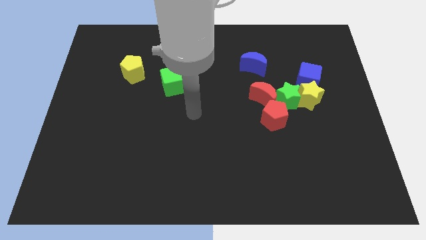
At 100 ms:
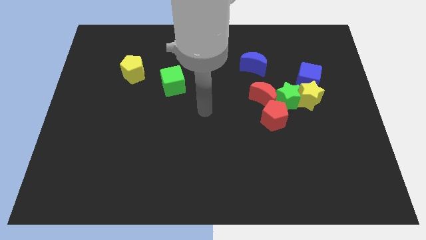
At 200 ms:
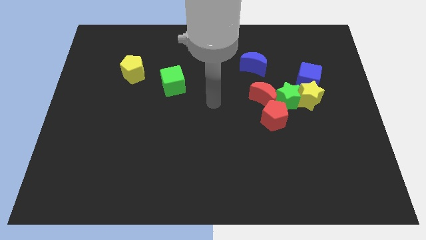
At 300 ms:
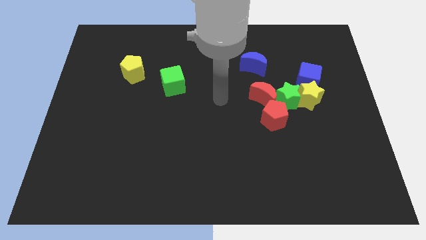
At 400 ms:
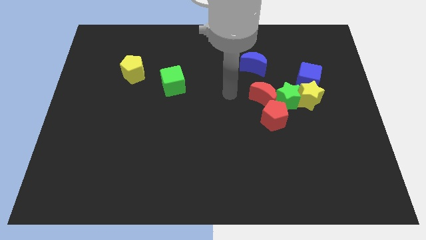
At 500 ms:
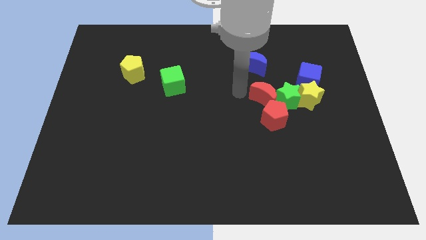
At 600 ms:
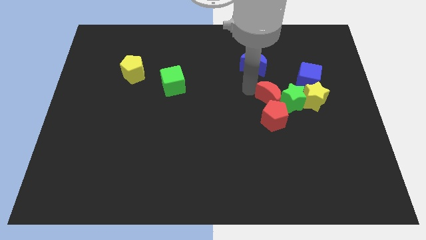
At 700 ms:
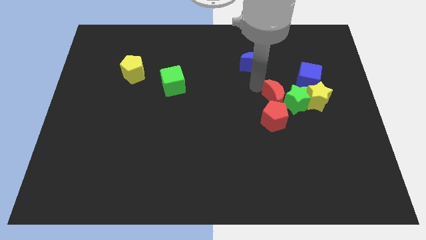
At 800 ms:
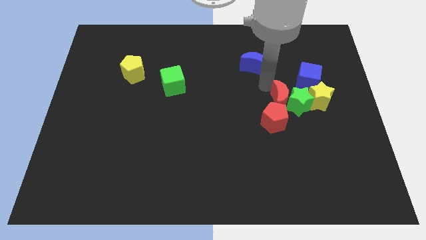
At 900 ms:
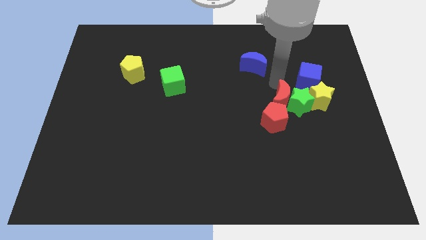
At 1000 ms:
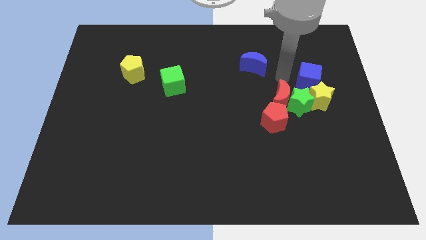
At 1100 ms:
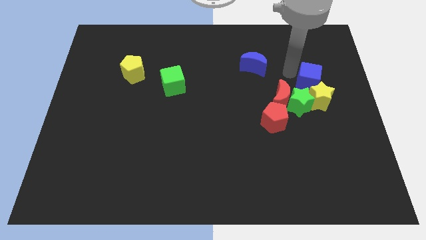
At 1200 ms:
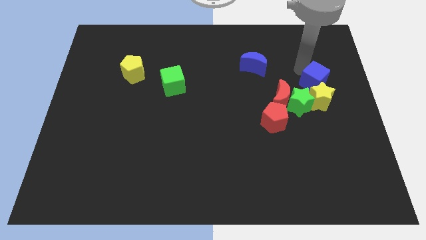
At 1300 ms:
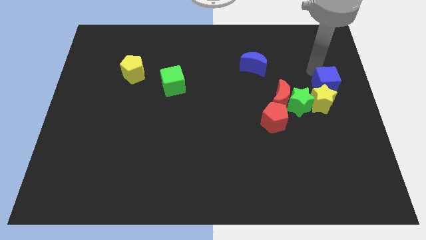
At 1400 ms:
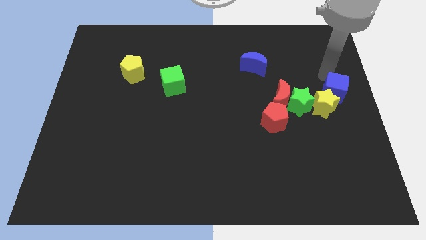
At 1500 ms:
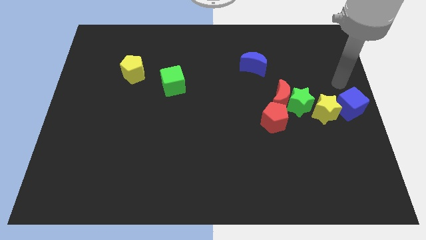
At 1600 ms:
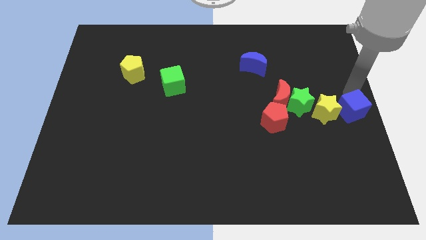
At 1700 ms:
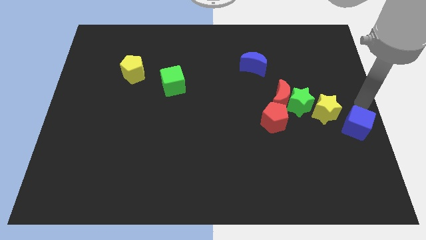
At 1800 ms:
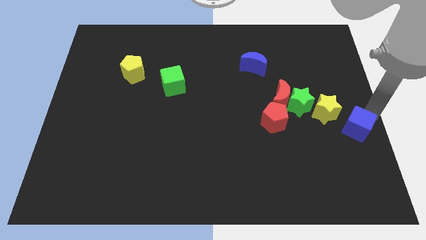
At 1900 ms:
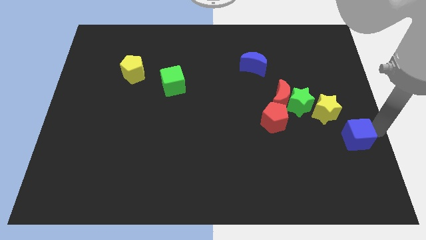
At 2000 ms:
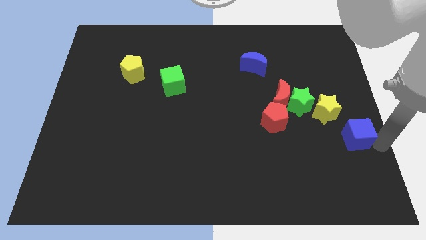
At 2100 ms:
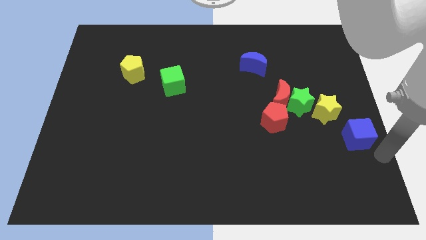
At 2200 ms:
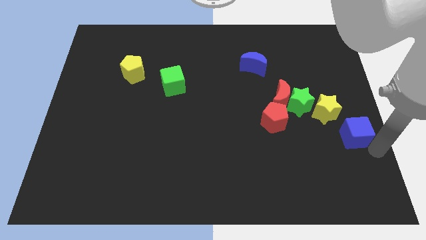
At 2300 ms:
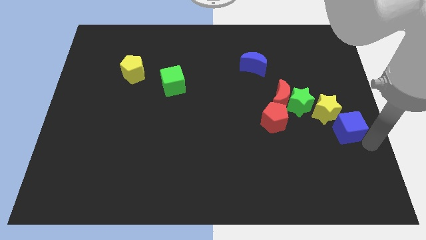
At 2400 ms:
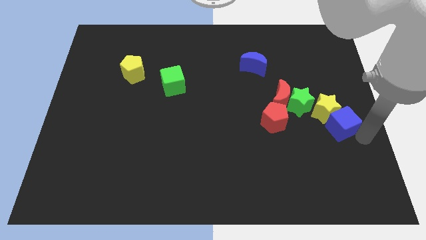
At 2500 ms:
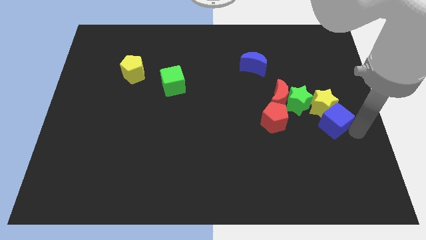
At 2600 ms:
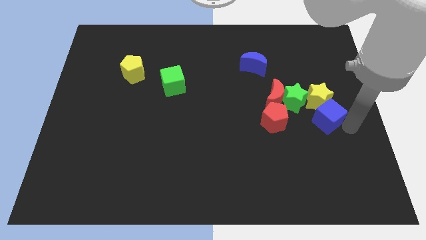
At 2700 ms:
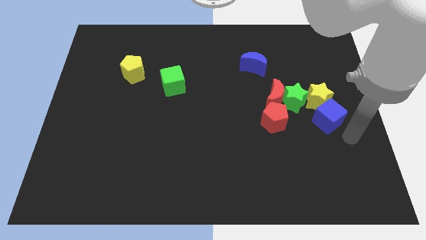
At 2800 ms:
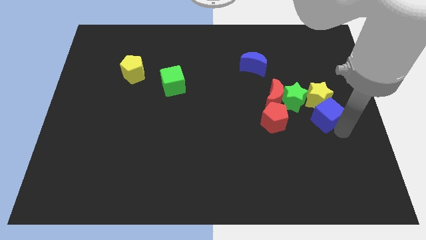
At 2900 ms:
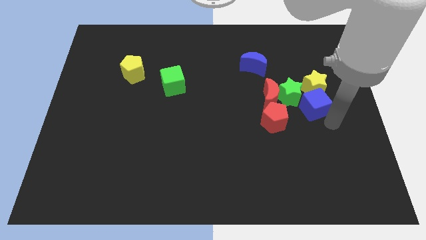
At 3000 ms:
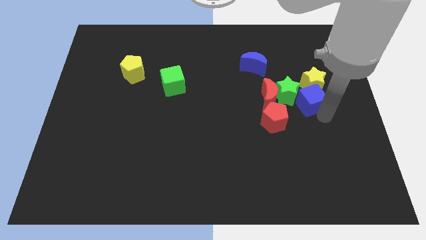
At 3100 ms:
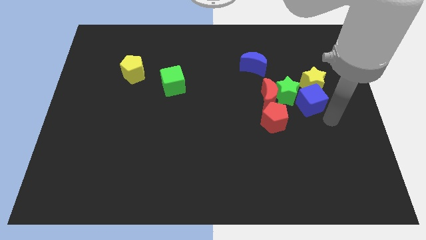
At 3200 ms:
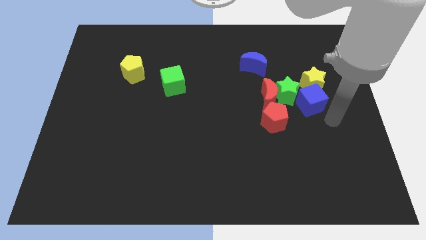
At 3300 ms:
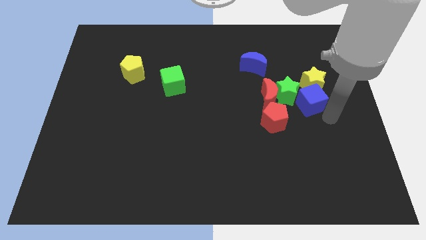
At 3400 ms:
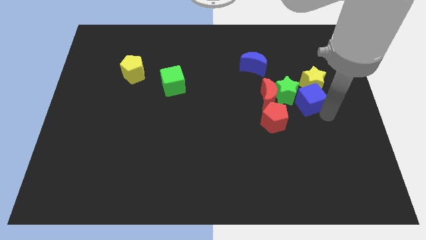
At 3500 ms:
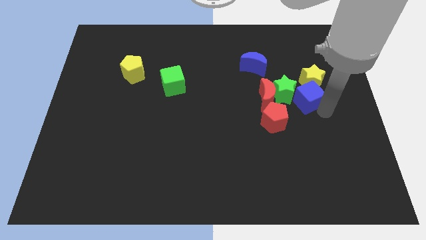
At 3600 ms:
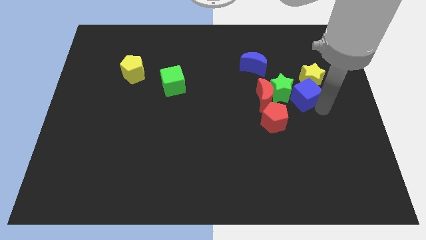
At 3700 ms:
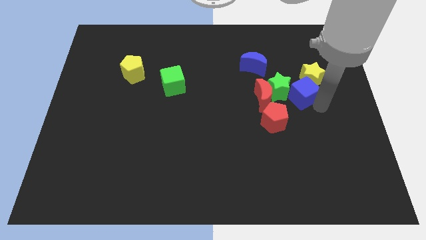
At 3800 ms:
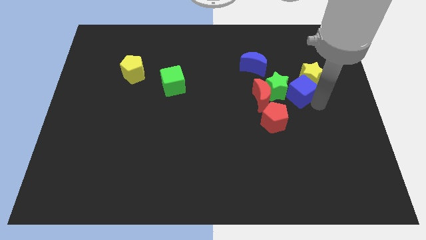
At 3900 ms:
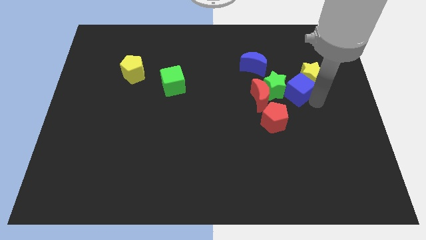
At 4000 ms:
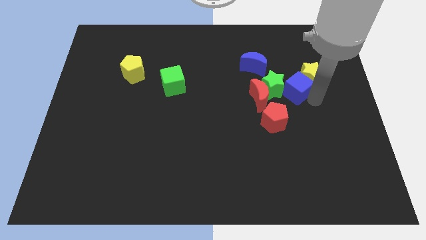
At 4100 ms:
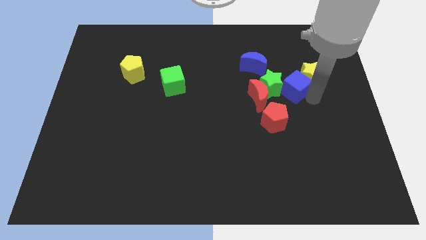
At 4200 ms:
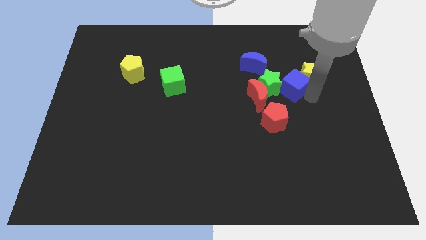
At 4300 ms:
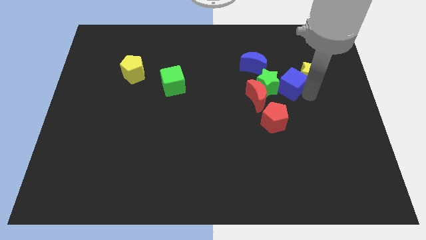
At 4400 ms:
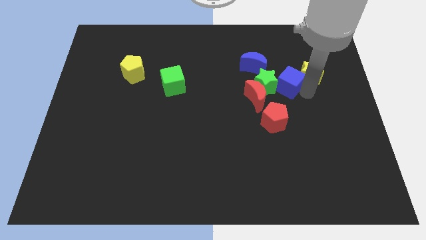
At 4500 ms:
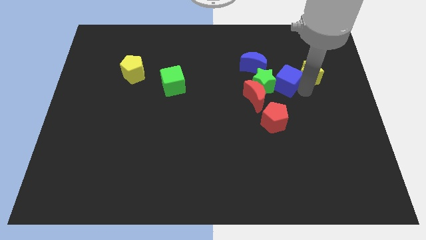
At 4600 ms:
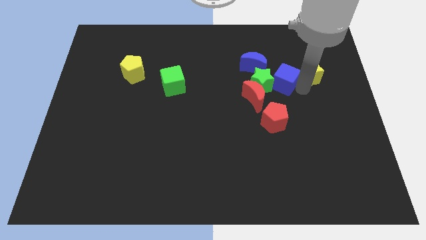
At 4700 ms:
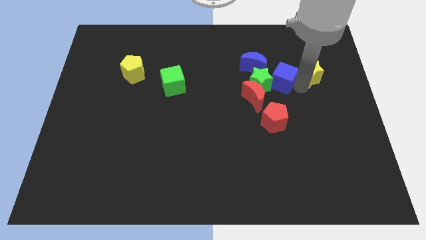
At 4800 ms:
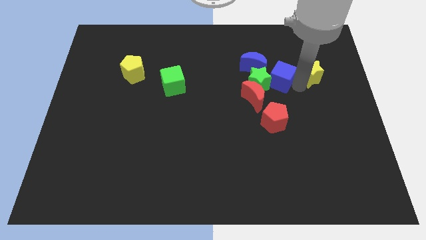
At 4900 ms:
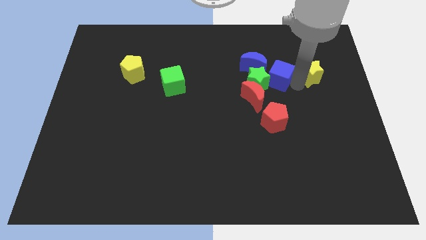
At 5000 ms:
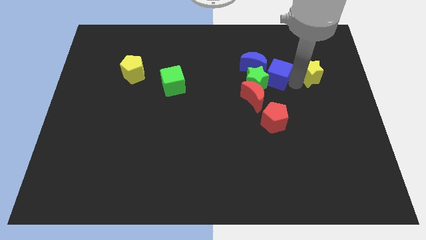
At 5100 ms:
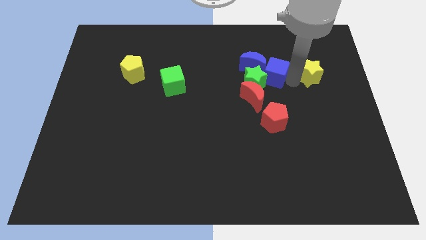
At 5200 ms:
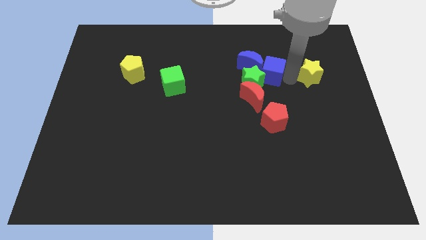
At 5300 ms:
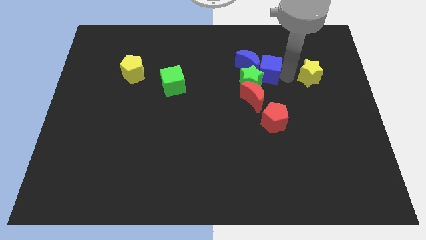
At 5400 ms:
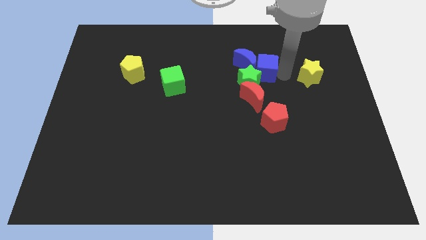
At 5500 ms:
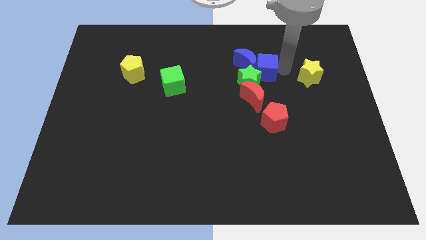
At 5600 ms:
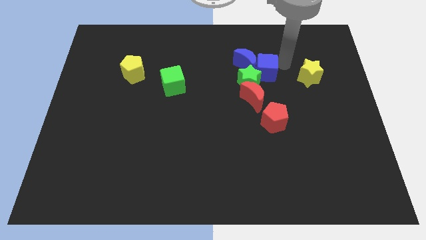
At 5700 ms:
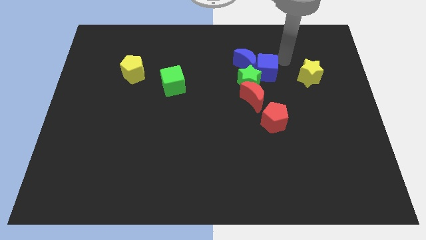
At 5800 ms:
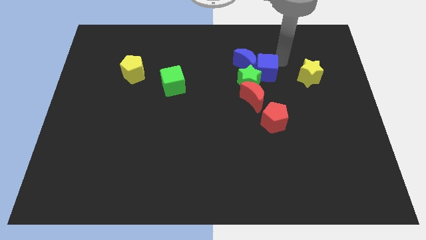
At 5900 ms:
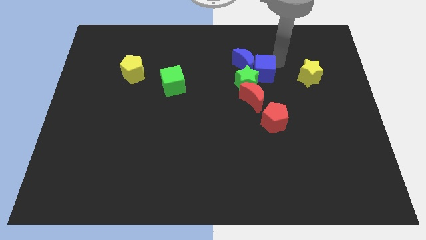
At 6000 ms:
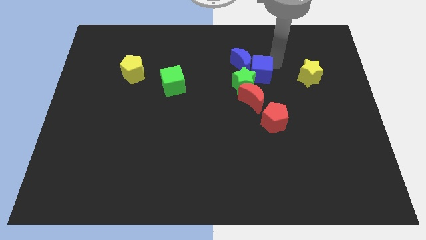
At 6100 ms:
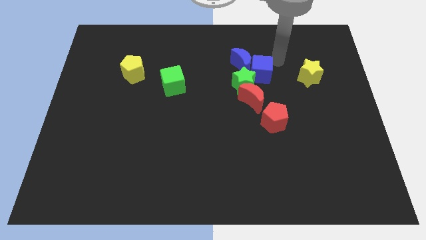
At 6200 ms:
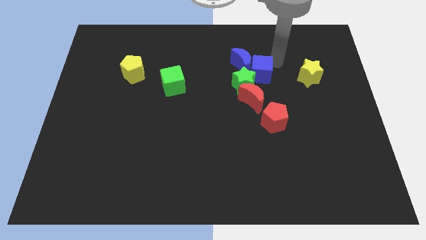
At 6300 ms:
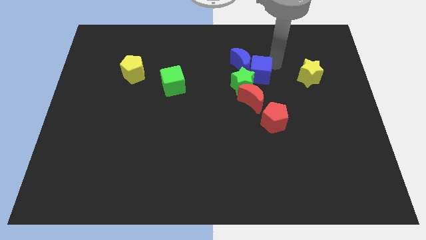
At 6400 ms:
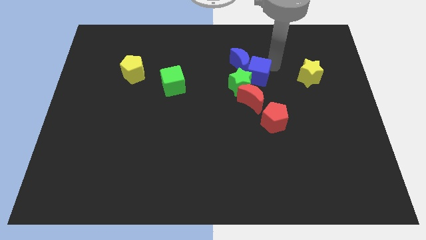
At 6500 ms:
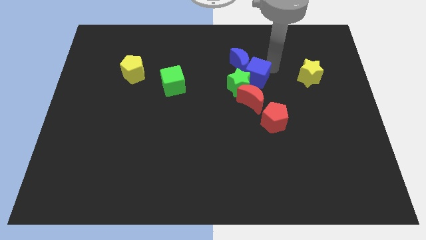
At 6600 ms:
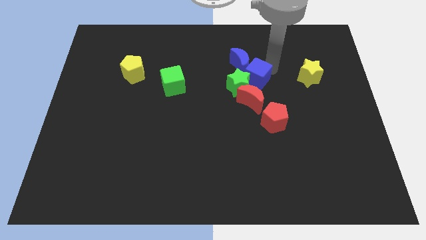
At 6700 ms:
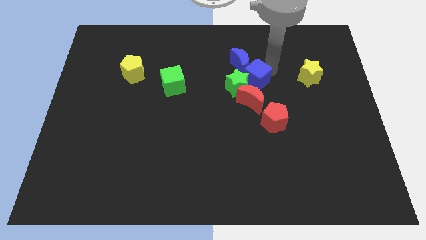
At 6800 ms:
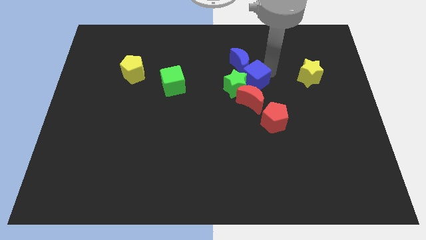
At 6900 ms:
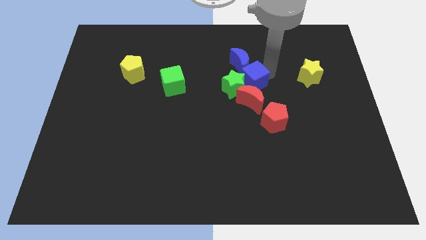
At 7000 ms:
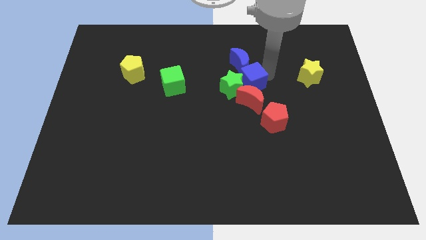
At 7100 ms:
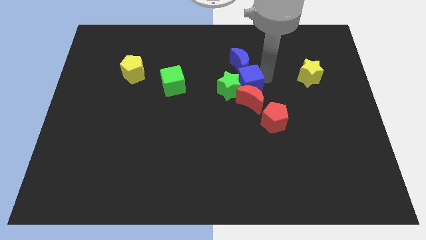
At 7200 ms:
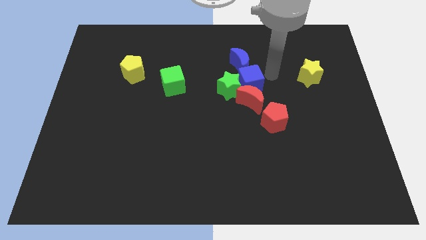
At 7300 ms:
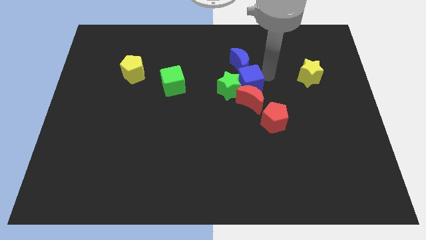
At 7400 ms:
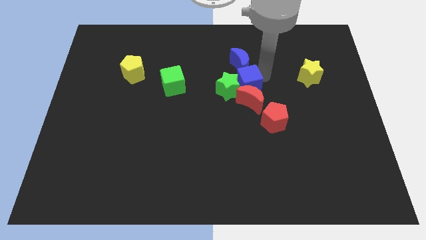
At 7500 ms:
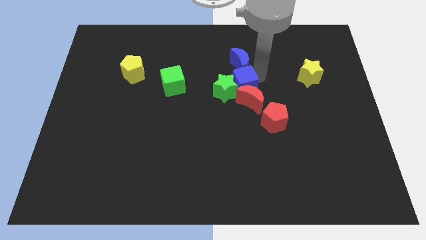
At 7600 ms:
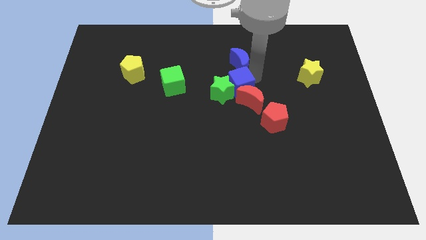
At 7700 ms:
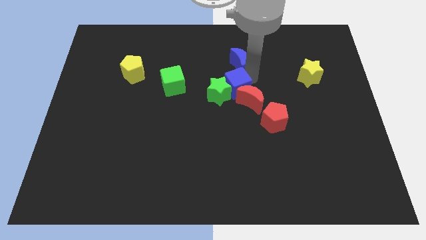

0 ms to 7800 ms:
push the blue cube to the left of the red moon
